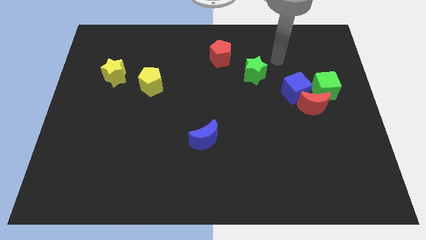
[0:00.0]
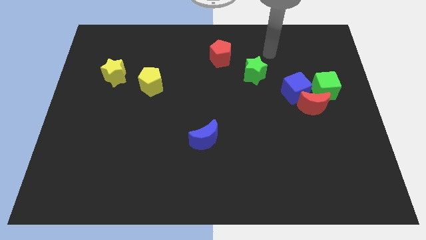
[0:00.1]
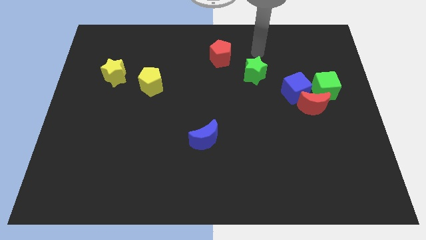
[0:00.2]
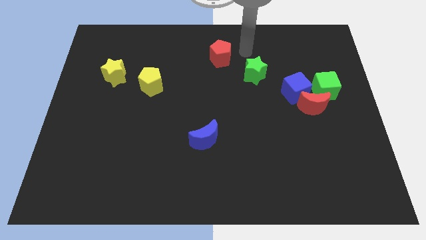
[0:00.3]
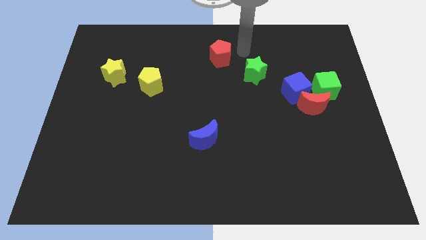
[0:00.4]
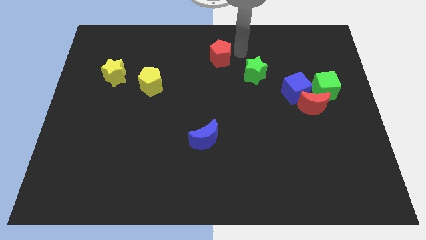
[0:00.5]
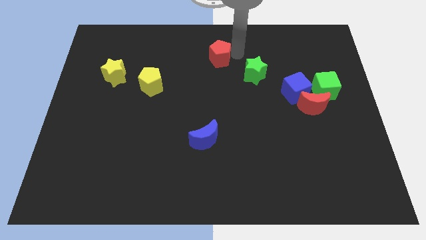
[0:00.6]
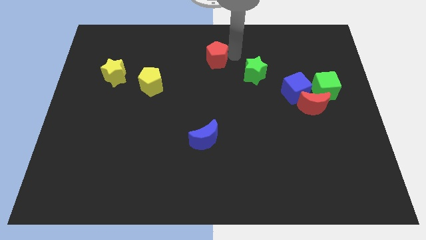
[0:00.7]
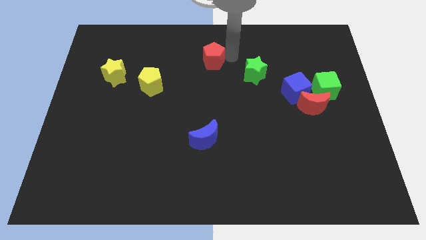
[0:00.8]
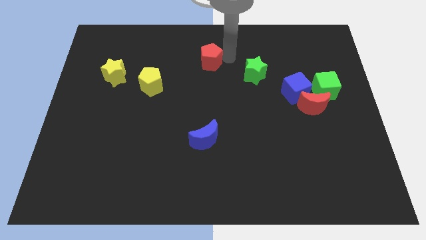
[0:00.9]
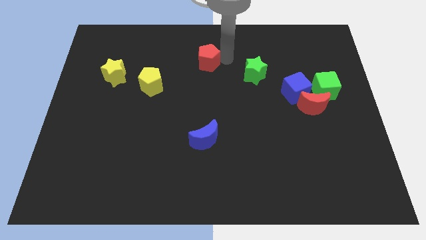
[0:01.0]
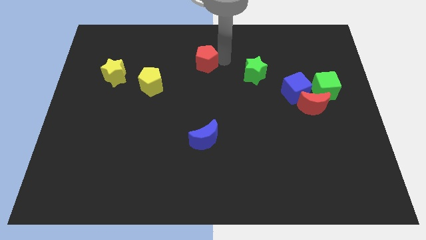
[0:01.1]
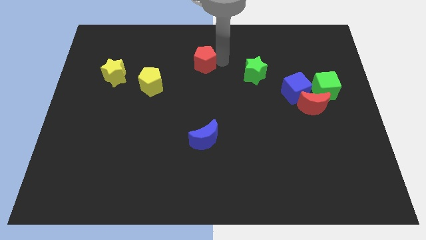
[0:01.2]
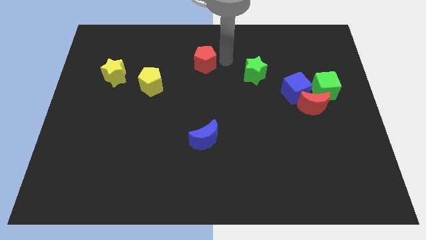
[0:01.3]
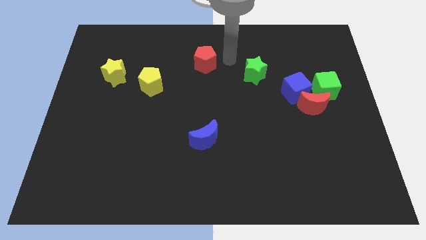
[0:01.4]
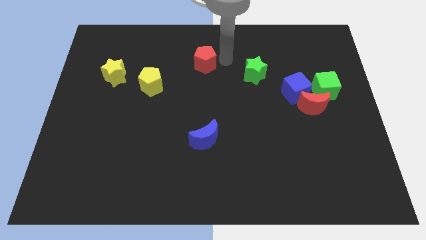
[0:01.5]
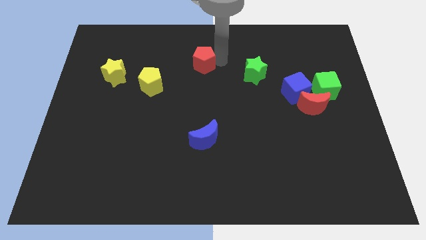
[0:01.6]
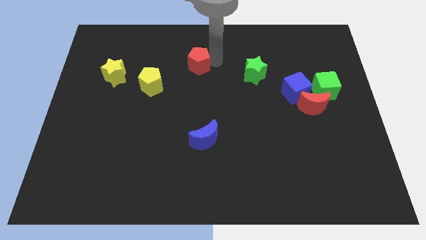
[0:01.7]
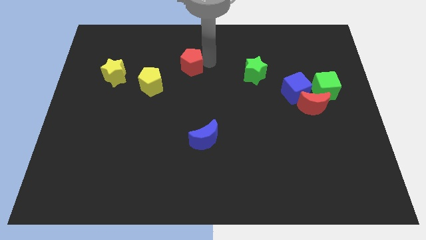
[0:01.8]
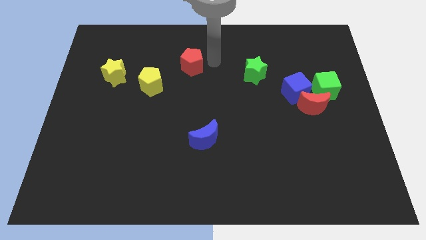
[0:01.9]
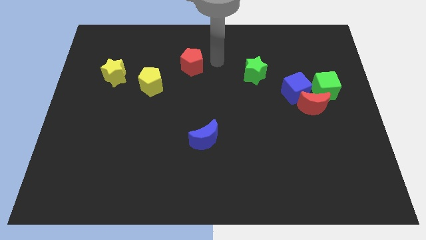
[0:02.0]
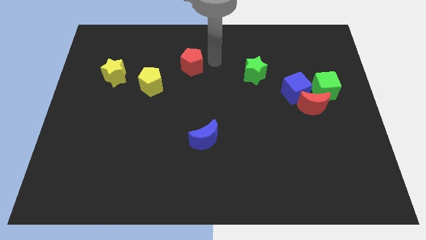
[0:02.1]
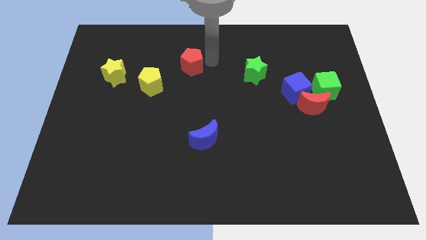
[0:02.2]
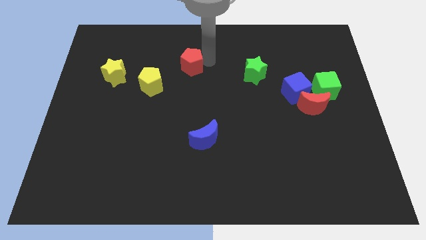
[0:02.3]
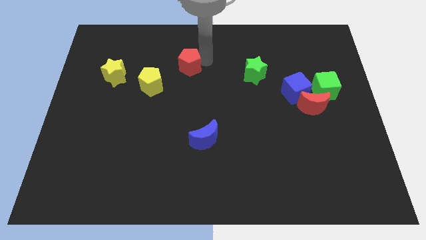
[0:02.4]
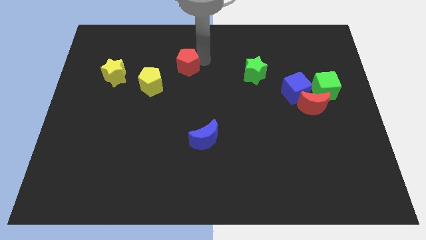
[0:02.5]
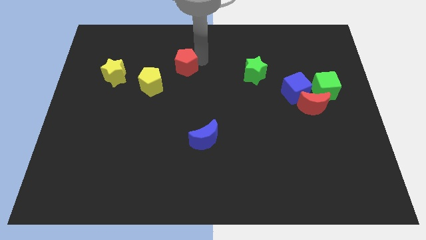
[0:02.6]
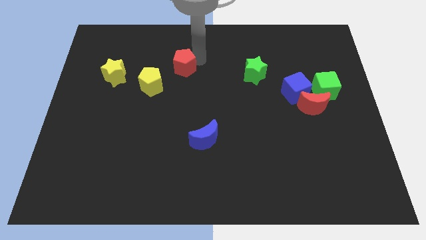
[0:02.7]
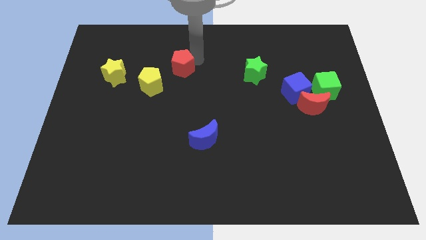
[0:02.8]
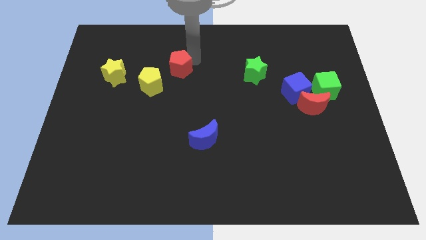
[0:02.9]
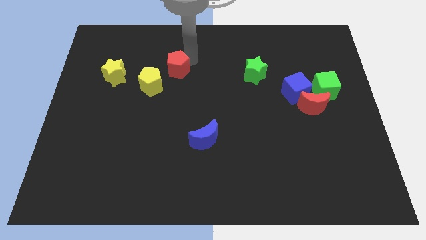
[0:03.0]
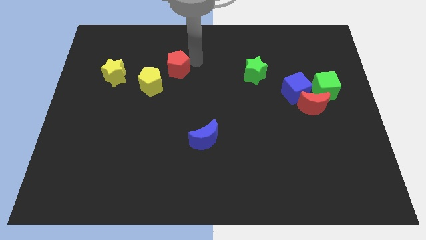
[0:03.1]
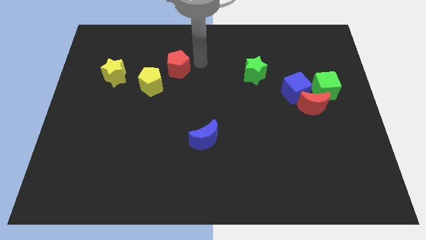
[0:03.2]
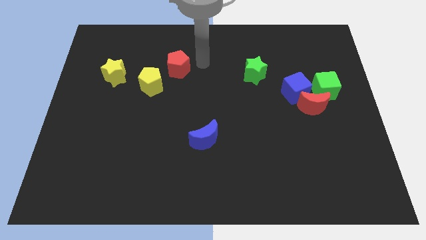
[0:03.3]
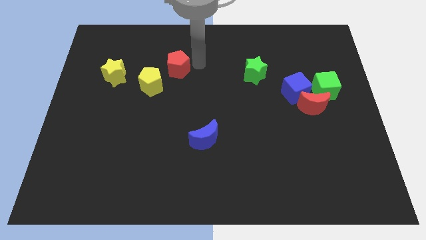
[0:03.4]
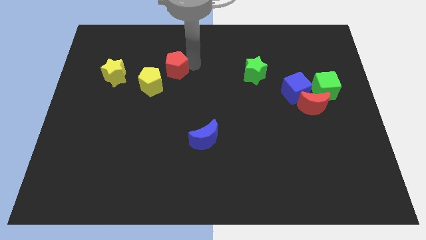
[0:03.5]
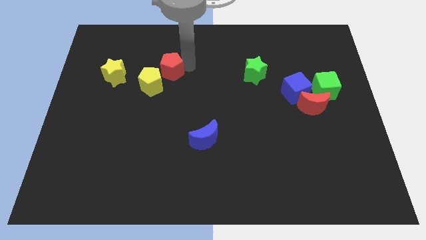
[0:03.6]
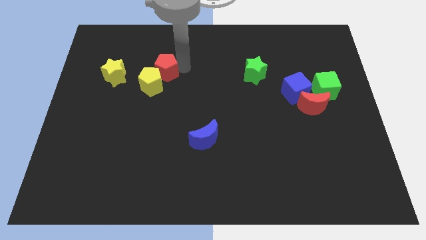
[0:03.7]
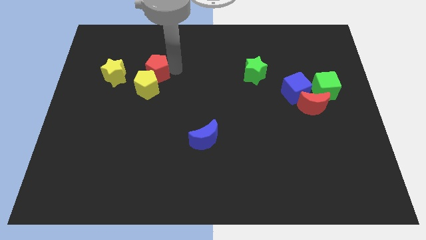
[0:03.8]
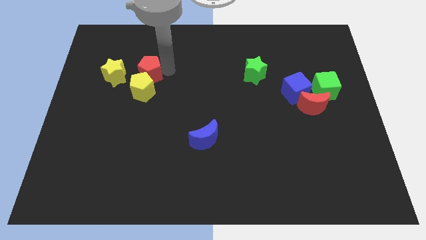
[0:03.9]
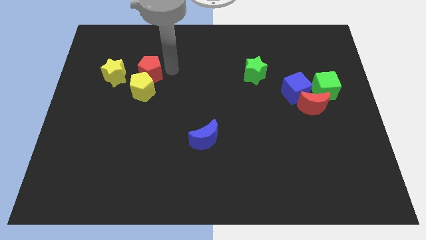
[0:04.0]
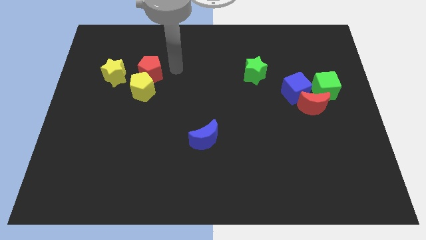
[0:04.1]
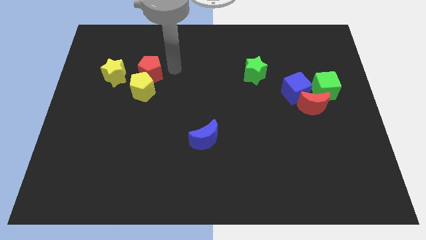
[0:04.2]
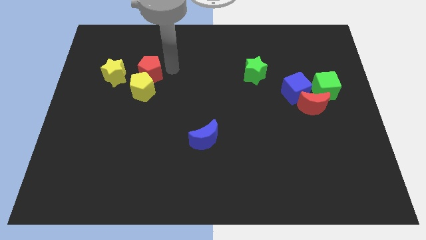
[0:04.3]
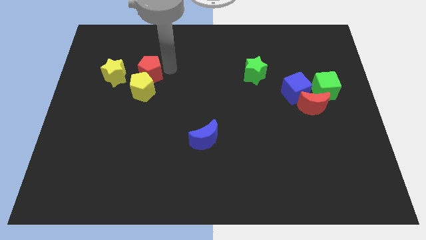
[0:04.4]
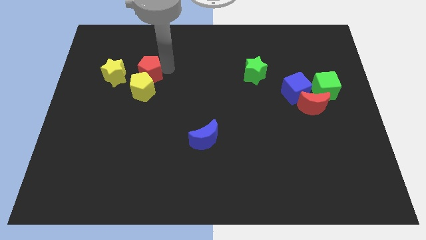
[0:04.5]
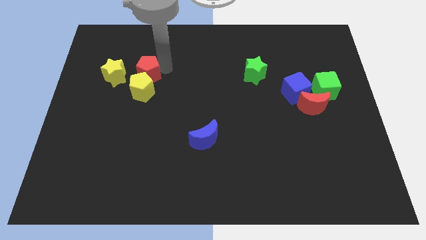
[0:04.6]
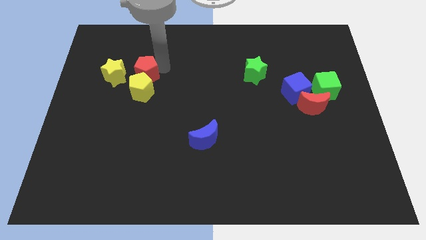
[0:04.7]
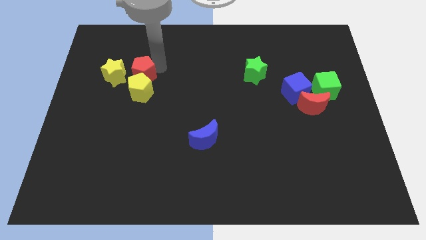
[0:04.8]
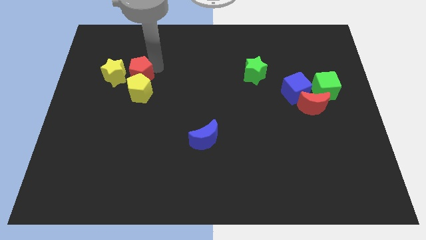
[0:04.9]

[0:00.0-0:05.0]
slide the red pentagon next to the yellow star
